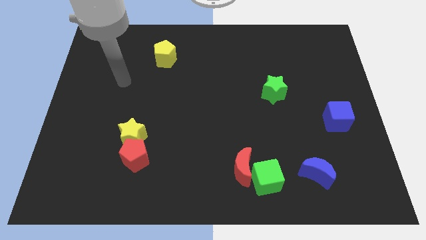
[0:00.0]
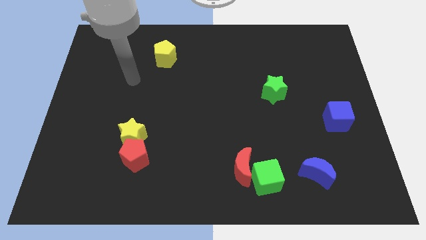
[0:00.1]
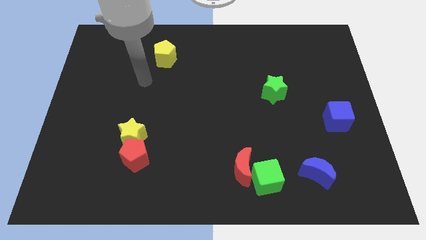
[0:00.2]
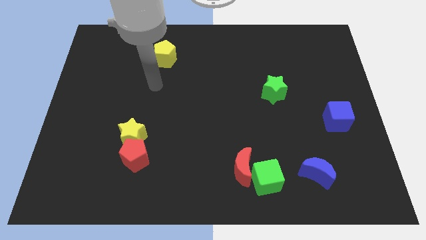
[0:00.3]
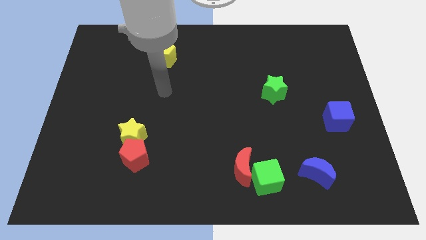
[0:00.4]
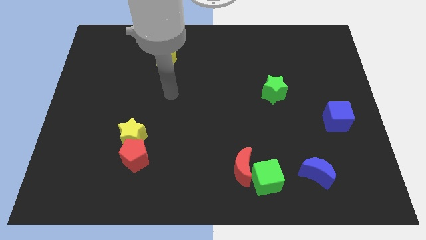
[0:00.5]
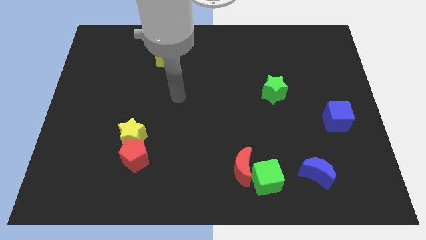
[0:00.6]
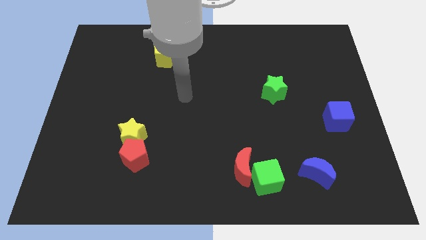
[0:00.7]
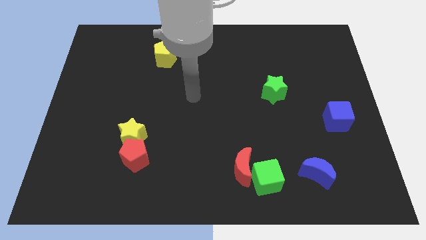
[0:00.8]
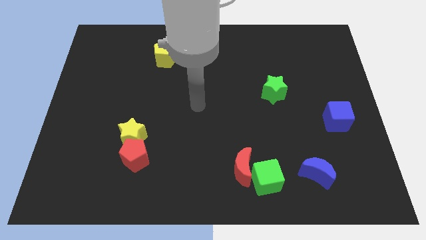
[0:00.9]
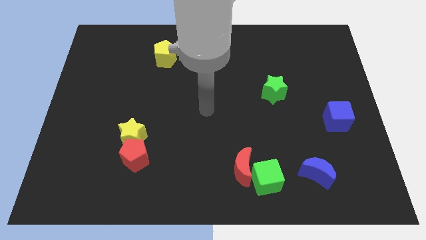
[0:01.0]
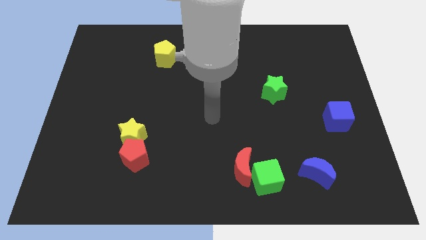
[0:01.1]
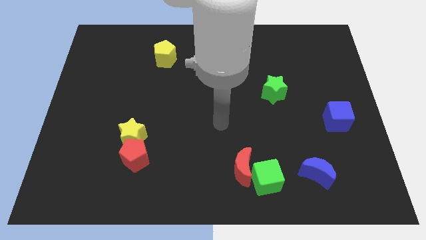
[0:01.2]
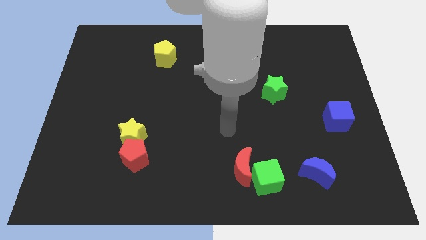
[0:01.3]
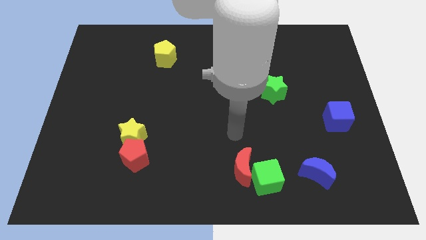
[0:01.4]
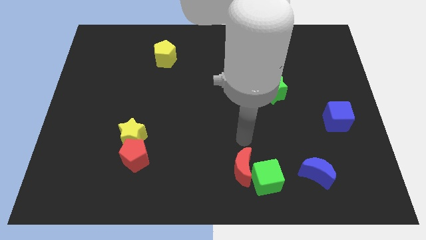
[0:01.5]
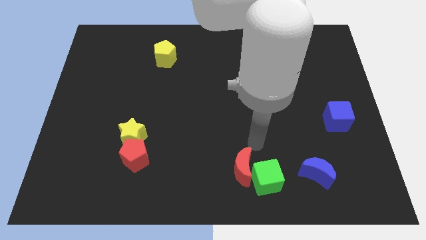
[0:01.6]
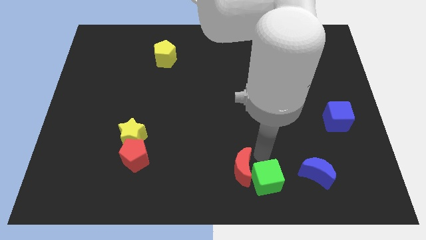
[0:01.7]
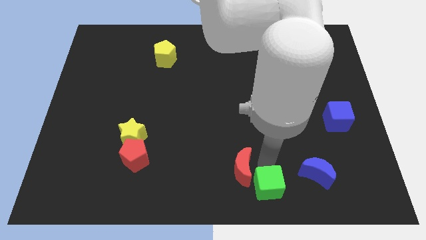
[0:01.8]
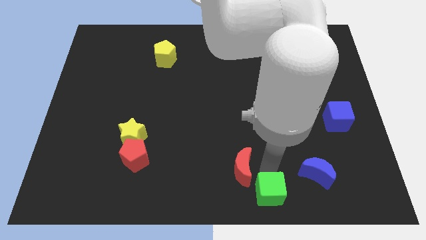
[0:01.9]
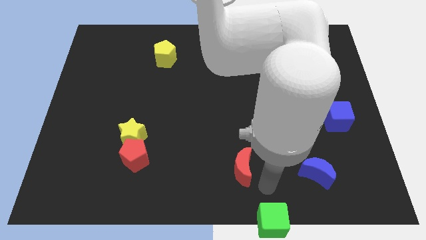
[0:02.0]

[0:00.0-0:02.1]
pull the red moon apart from the green cube

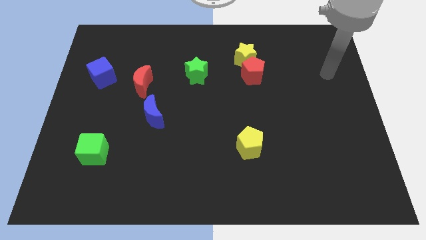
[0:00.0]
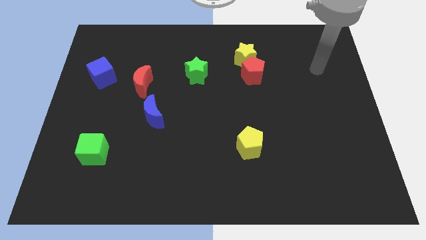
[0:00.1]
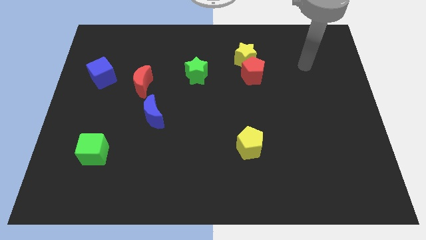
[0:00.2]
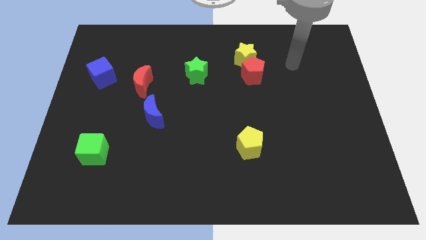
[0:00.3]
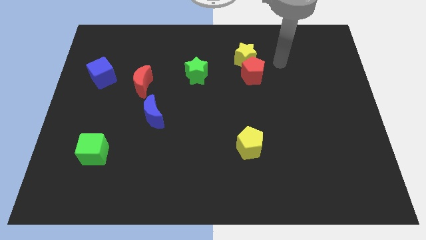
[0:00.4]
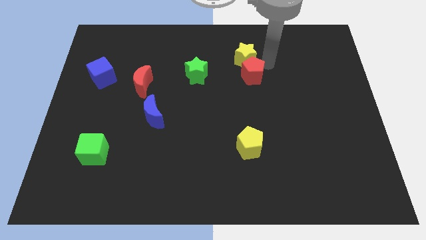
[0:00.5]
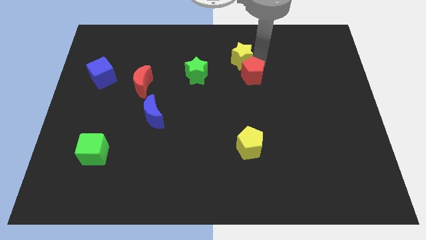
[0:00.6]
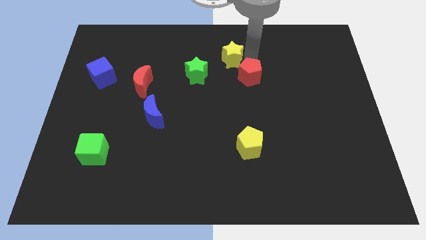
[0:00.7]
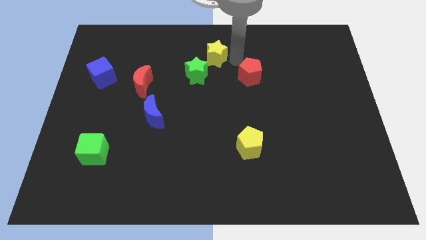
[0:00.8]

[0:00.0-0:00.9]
move the red pentagon away from the yellow star

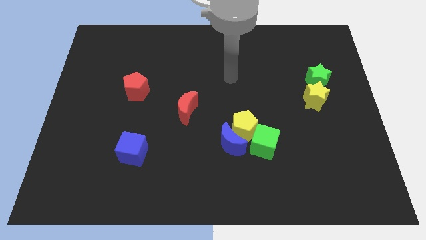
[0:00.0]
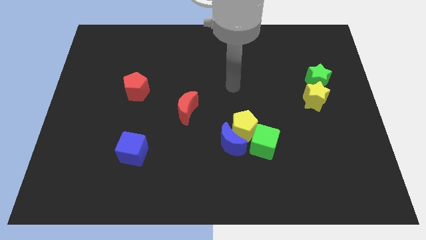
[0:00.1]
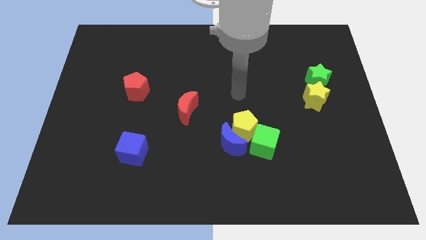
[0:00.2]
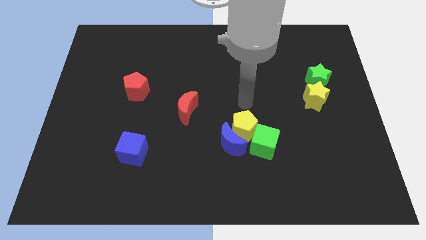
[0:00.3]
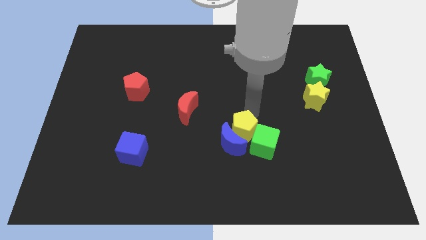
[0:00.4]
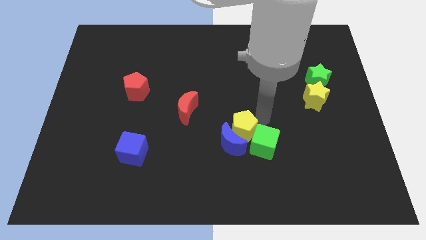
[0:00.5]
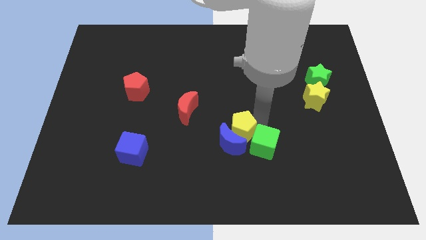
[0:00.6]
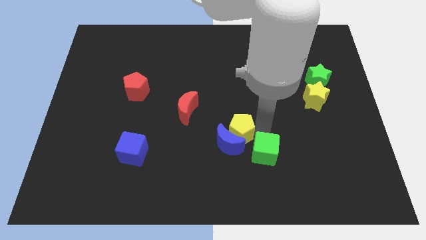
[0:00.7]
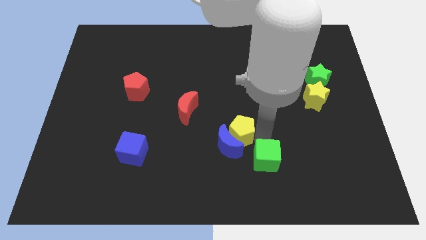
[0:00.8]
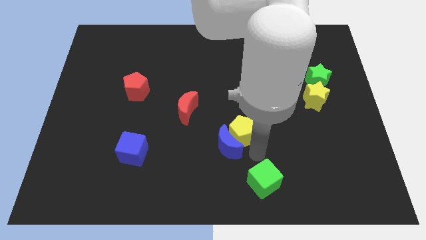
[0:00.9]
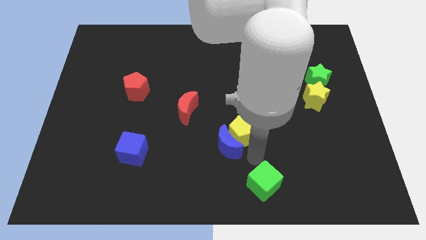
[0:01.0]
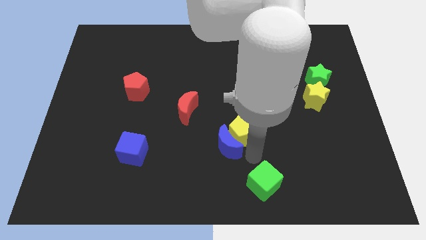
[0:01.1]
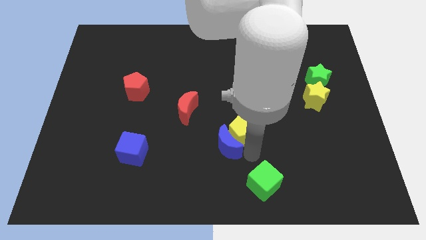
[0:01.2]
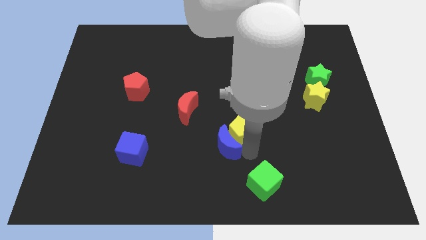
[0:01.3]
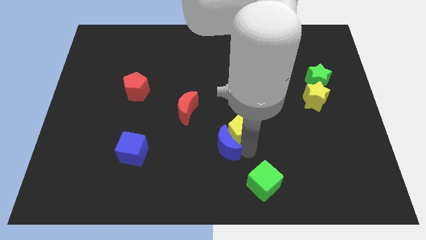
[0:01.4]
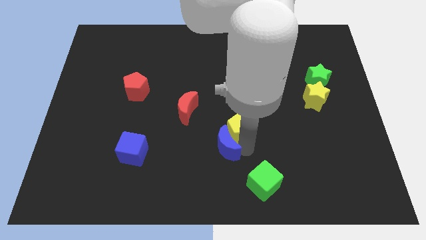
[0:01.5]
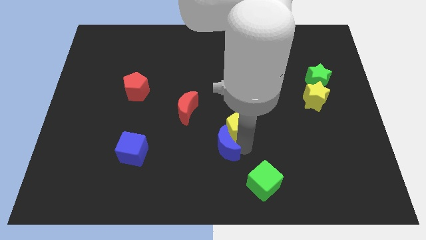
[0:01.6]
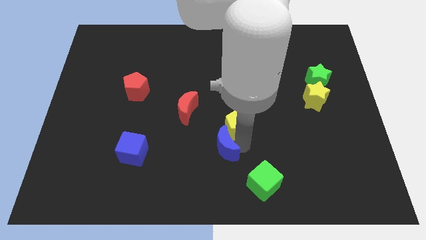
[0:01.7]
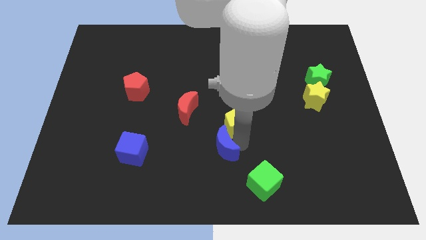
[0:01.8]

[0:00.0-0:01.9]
separate the yellow pentagon from the blue moon and green cube

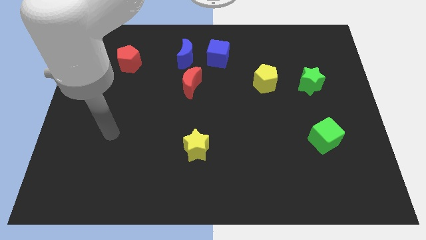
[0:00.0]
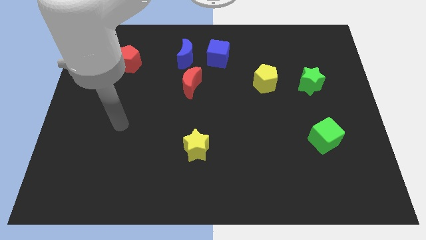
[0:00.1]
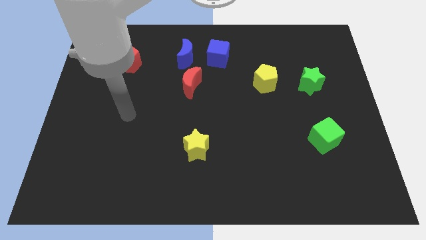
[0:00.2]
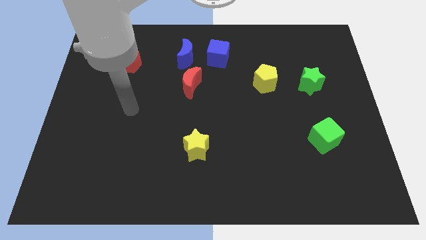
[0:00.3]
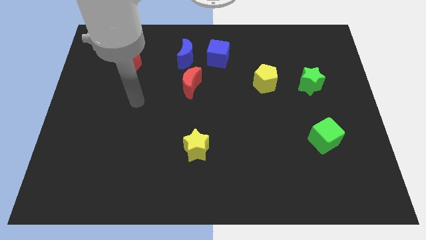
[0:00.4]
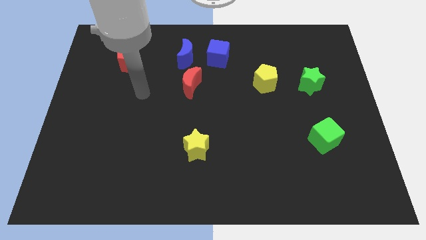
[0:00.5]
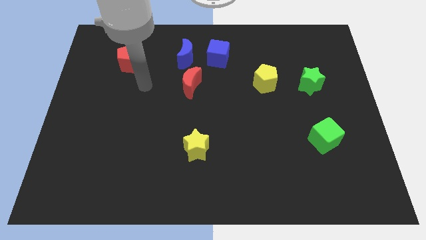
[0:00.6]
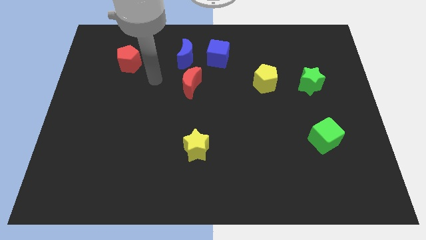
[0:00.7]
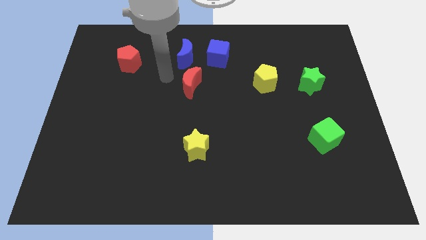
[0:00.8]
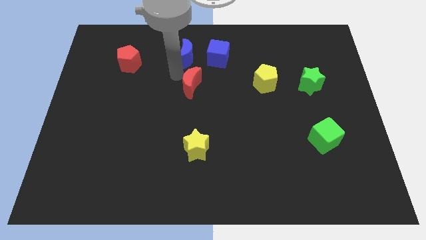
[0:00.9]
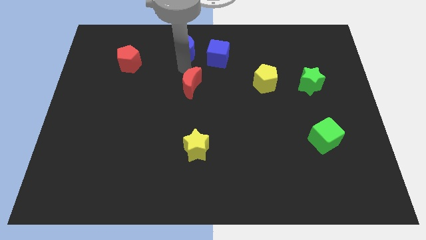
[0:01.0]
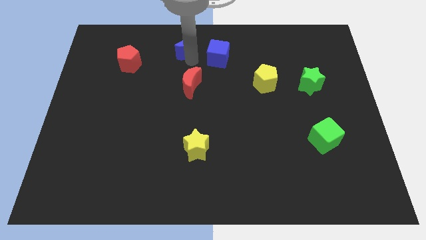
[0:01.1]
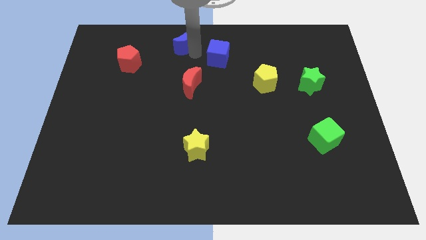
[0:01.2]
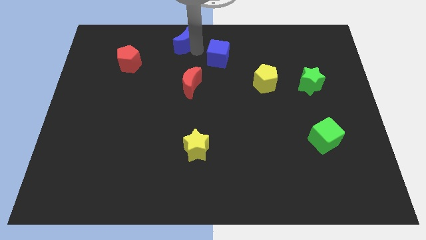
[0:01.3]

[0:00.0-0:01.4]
move the blue cube away from the blue moon

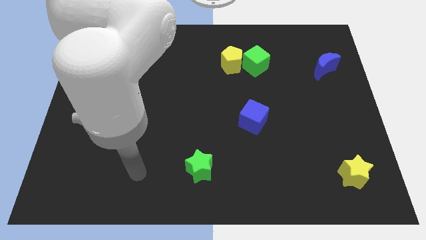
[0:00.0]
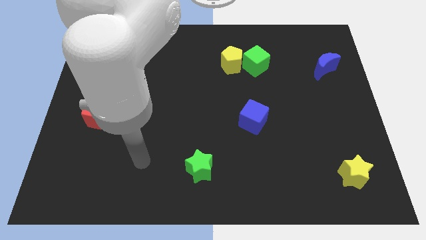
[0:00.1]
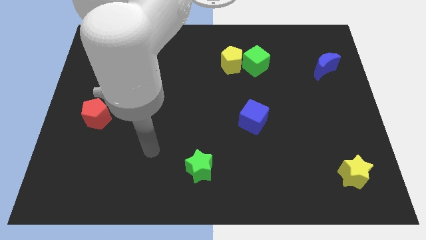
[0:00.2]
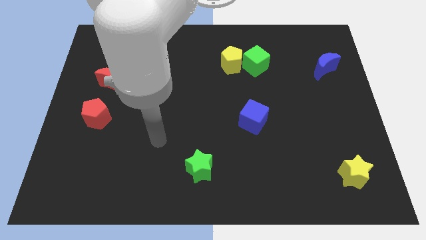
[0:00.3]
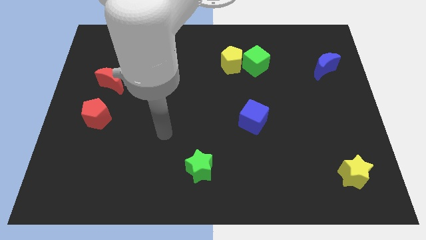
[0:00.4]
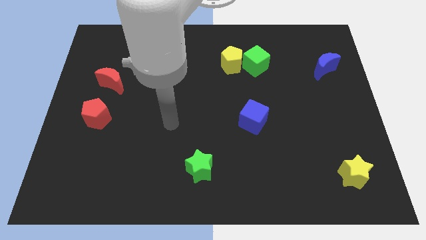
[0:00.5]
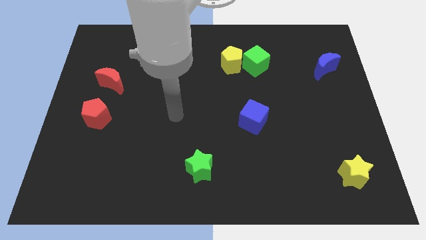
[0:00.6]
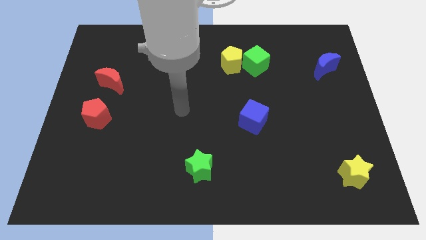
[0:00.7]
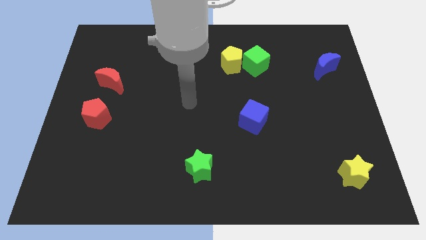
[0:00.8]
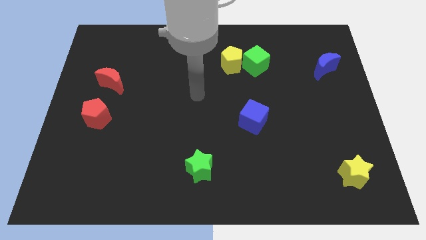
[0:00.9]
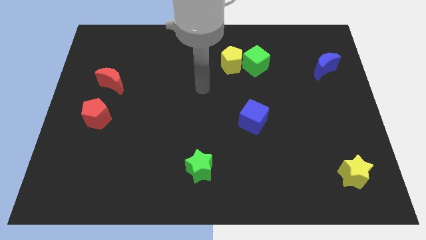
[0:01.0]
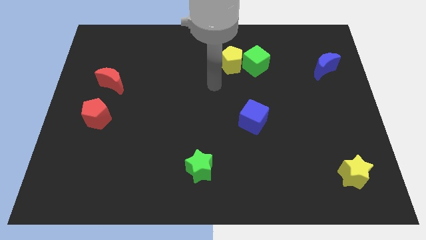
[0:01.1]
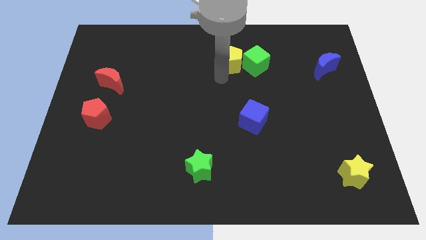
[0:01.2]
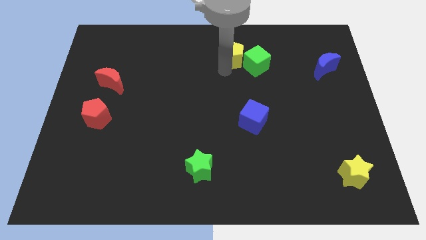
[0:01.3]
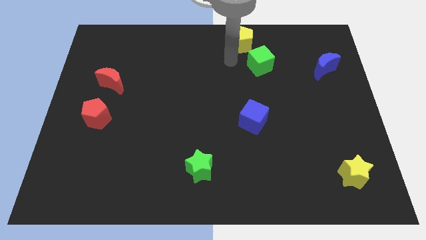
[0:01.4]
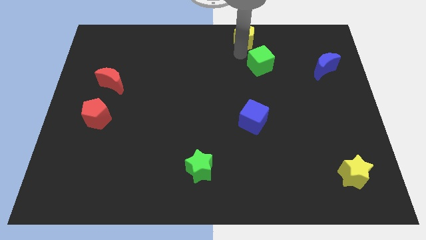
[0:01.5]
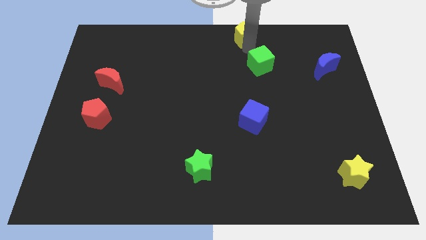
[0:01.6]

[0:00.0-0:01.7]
move the green cube away from the yellow pentagon

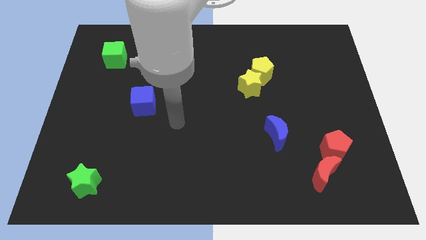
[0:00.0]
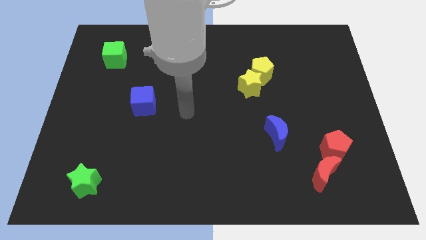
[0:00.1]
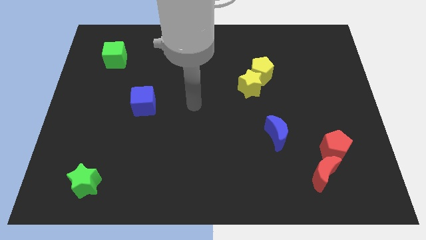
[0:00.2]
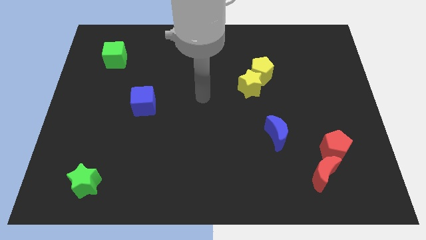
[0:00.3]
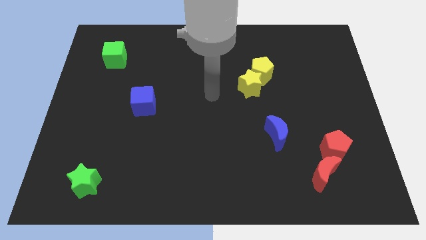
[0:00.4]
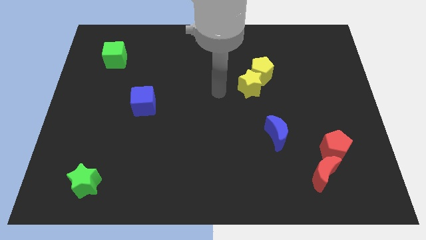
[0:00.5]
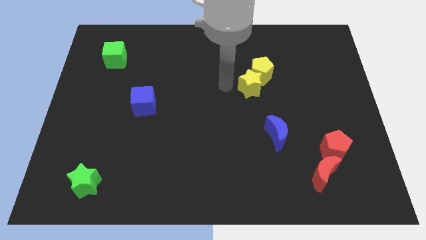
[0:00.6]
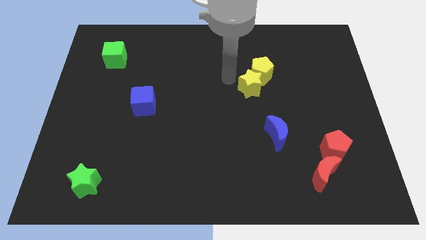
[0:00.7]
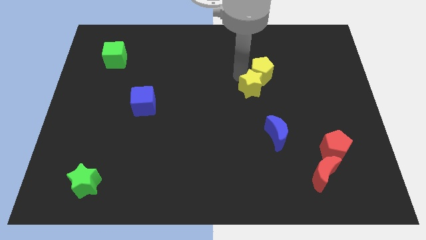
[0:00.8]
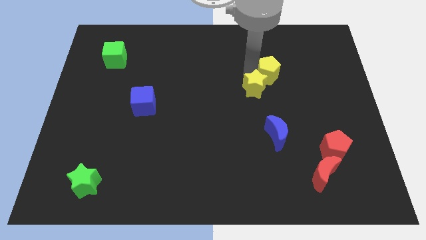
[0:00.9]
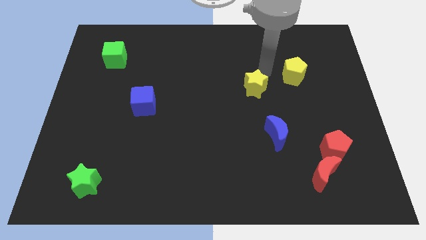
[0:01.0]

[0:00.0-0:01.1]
separate the yellow star from the yellow pentagon

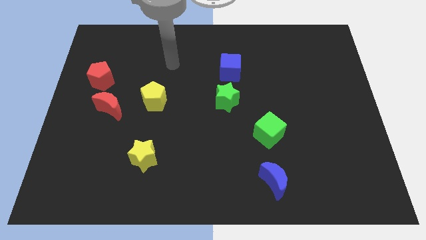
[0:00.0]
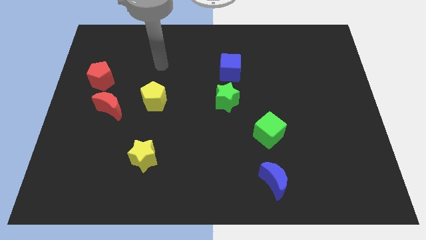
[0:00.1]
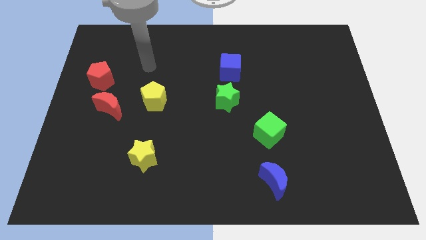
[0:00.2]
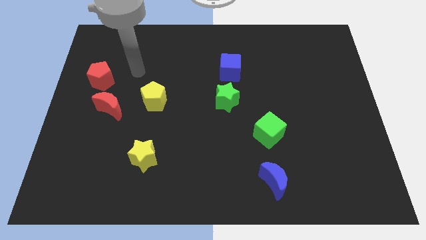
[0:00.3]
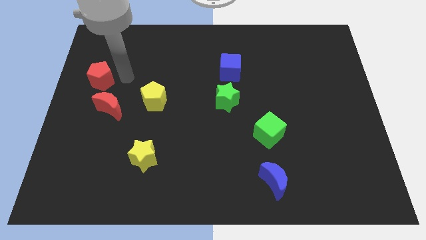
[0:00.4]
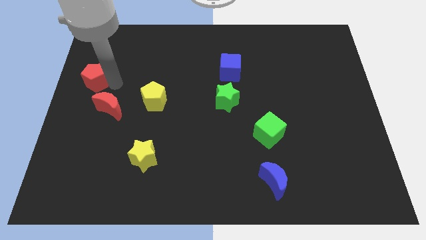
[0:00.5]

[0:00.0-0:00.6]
pull the red moon apart from the red pentagon
